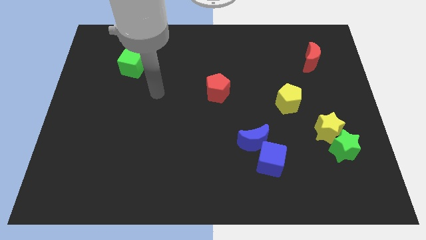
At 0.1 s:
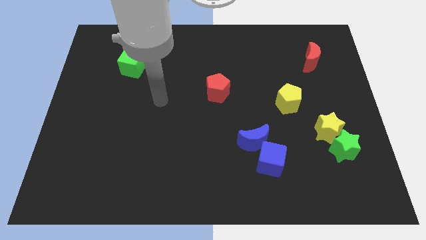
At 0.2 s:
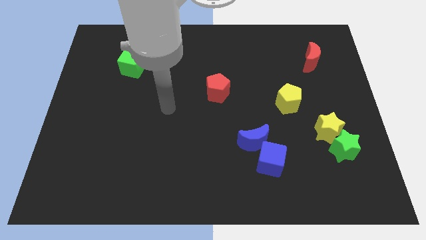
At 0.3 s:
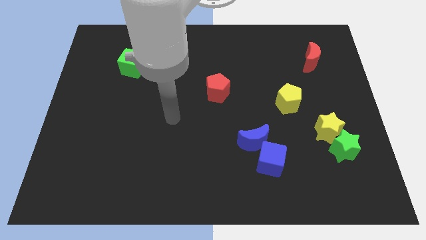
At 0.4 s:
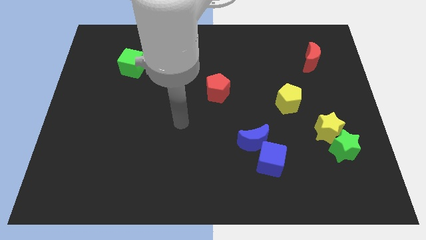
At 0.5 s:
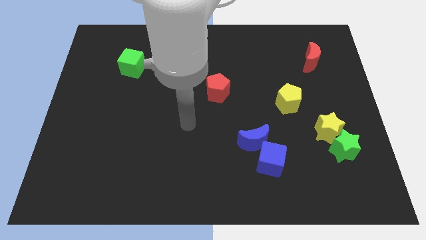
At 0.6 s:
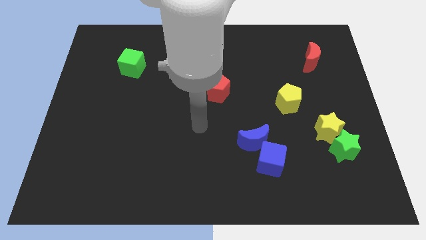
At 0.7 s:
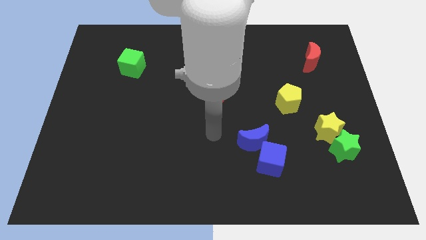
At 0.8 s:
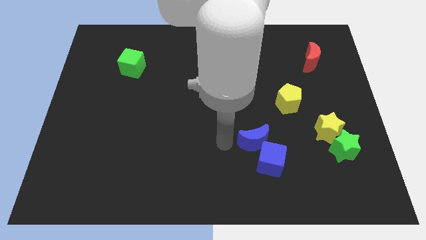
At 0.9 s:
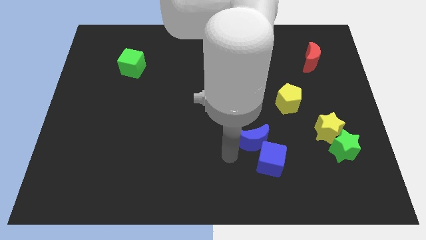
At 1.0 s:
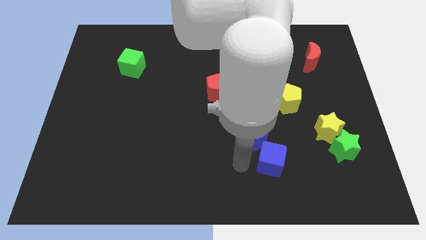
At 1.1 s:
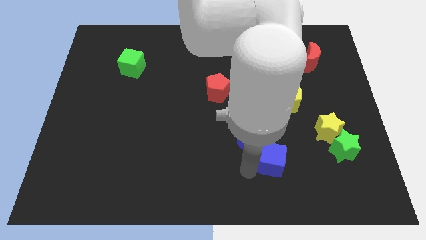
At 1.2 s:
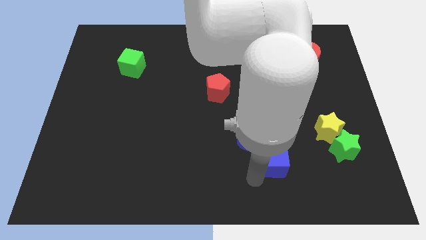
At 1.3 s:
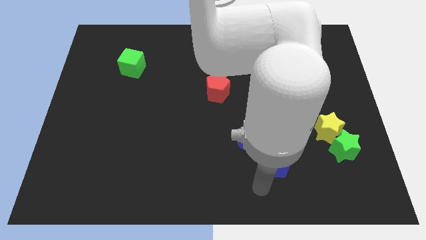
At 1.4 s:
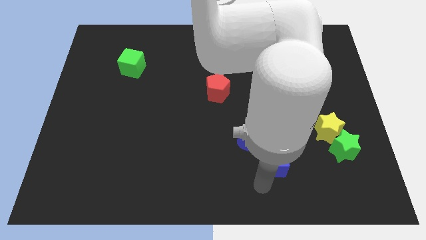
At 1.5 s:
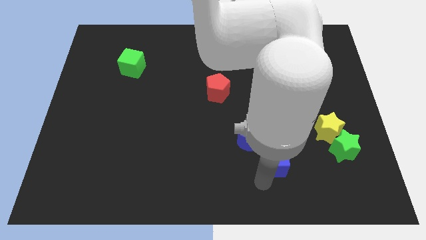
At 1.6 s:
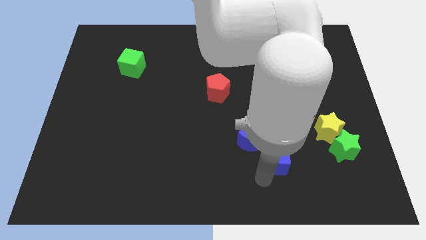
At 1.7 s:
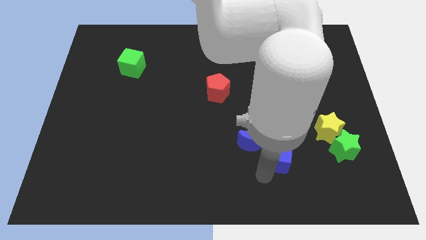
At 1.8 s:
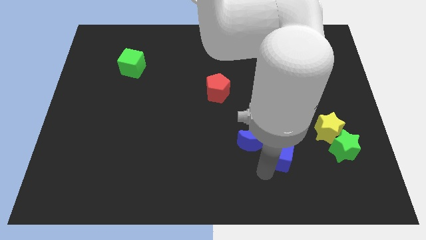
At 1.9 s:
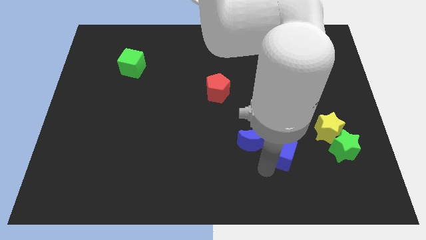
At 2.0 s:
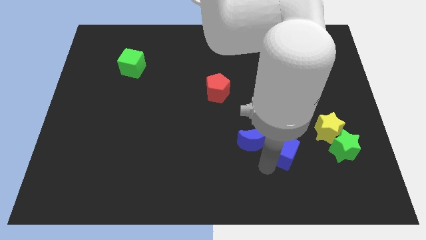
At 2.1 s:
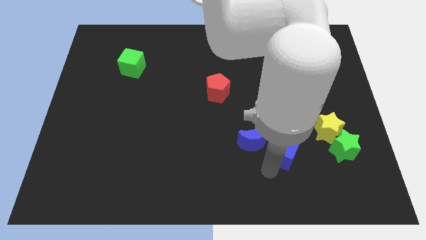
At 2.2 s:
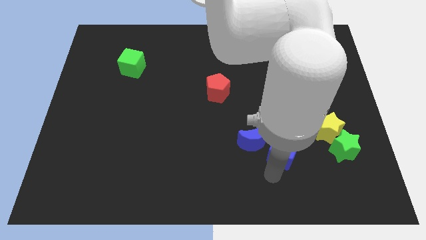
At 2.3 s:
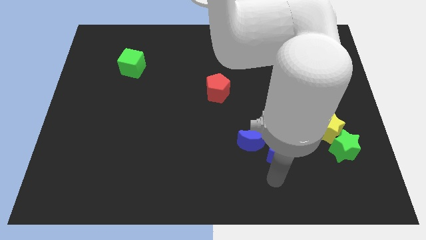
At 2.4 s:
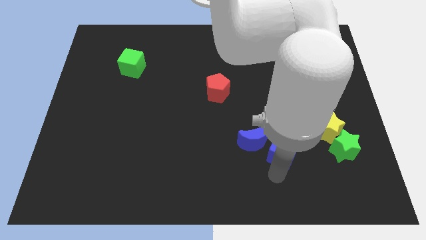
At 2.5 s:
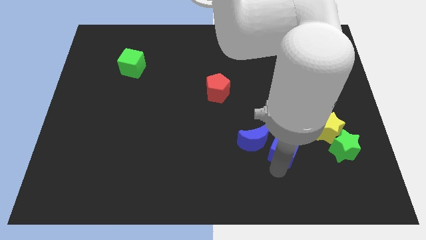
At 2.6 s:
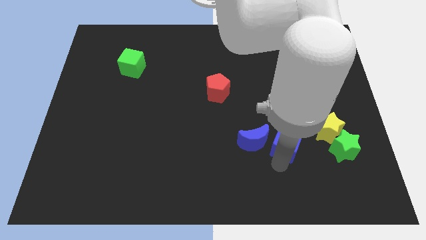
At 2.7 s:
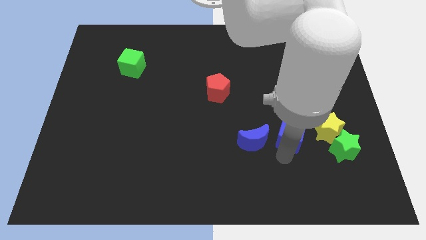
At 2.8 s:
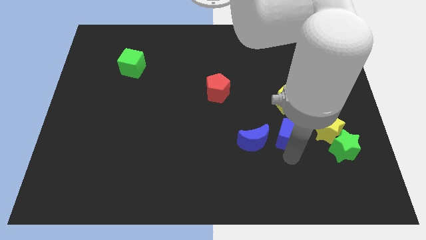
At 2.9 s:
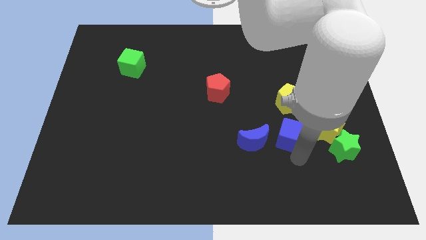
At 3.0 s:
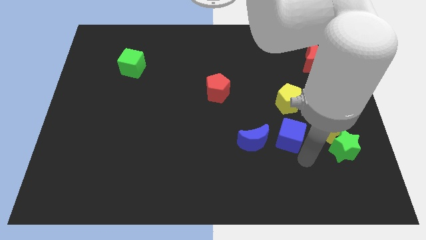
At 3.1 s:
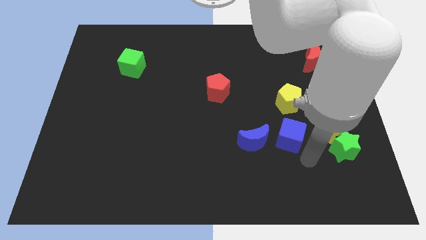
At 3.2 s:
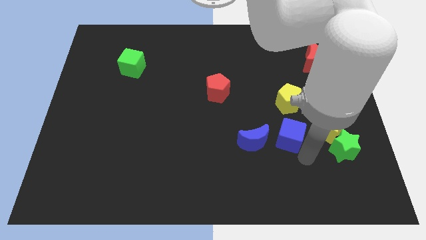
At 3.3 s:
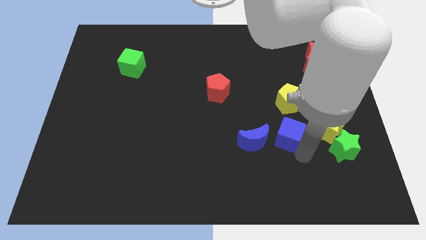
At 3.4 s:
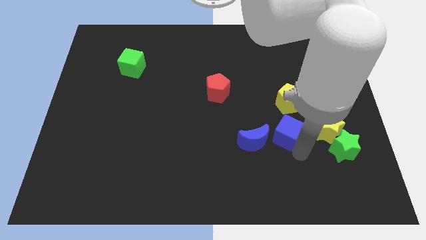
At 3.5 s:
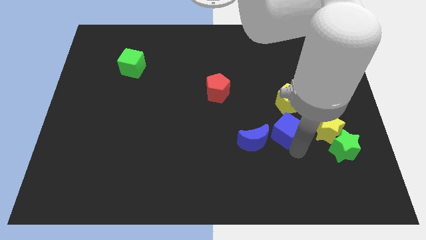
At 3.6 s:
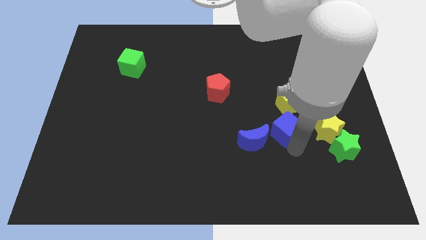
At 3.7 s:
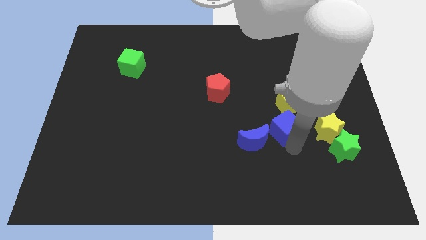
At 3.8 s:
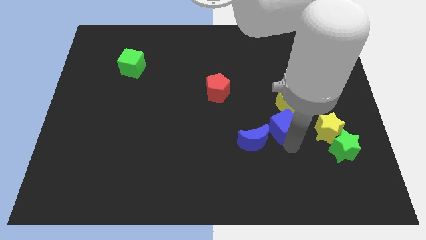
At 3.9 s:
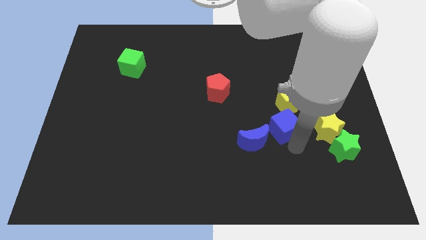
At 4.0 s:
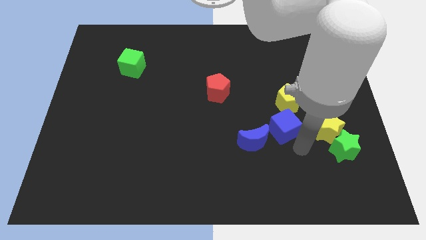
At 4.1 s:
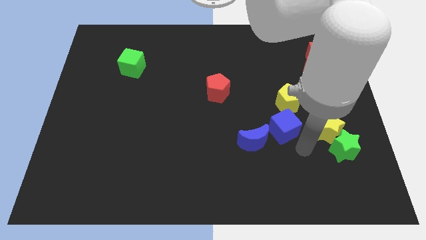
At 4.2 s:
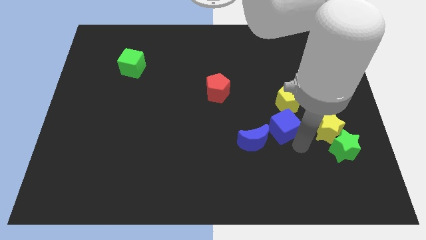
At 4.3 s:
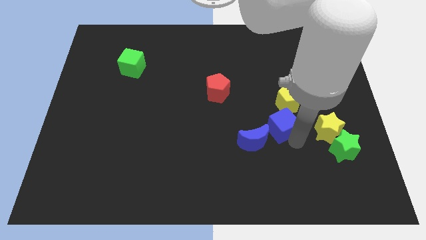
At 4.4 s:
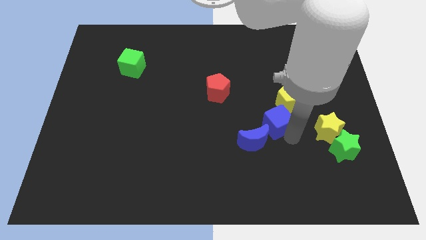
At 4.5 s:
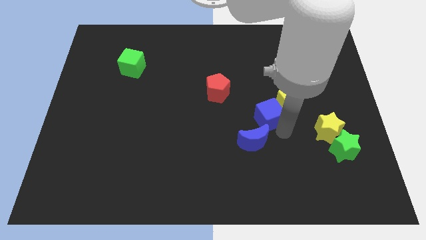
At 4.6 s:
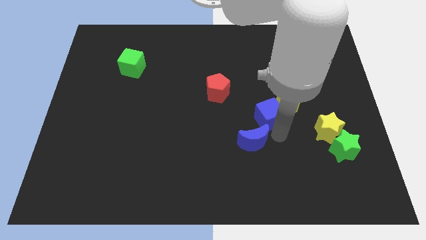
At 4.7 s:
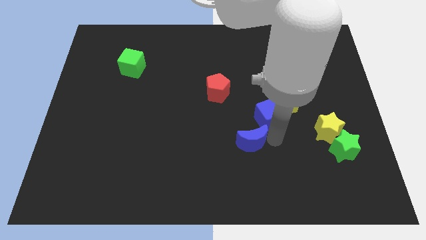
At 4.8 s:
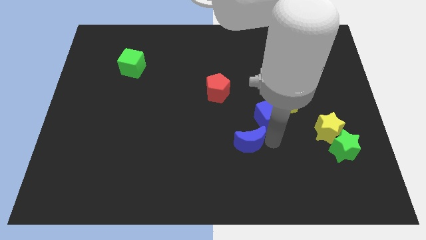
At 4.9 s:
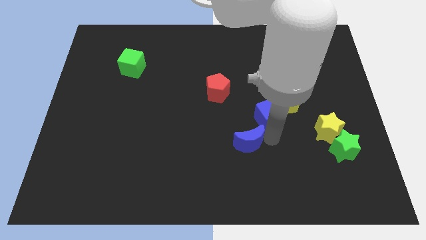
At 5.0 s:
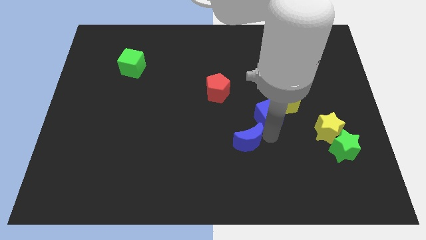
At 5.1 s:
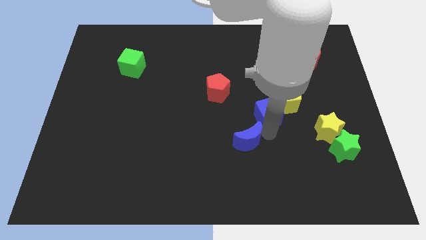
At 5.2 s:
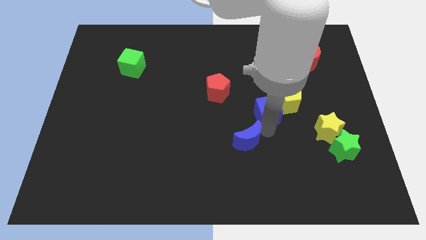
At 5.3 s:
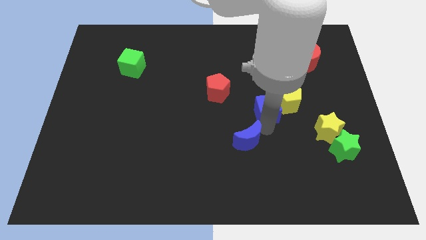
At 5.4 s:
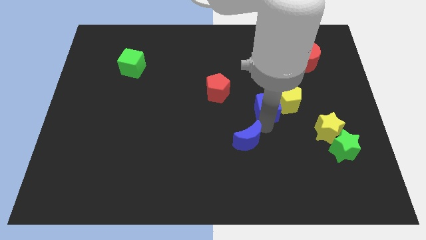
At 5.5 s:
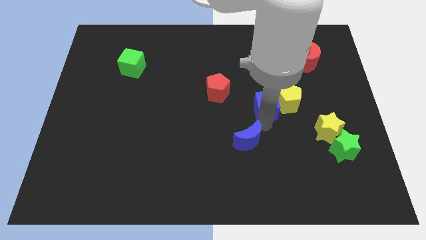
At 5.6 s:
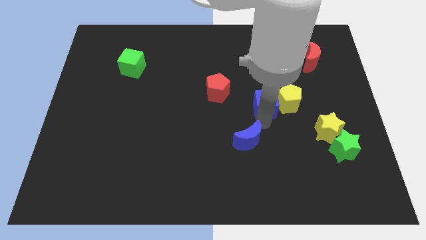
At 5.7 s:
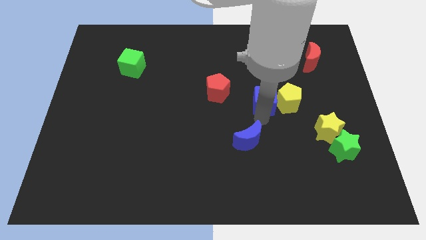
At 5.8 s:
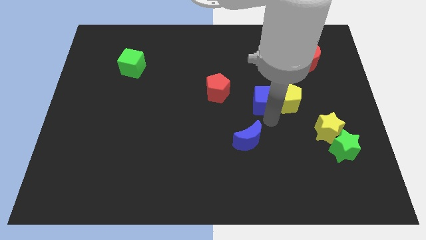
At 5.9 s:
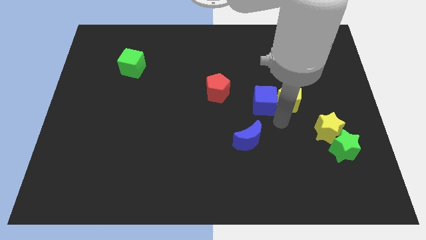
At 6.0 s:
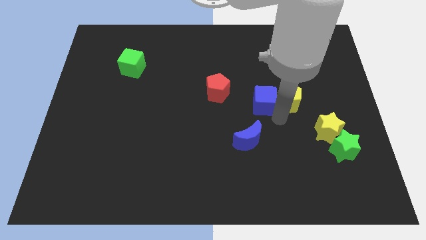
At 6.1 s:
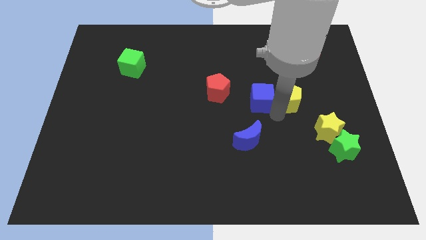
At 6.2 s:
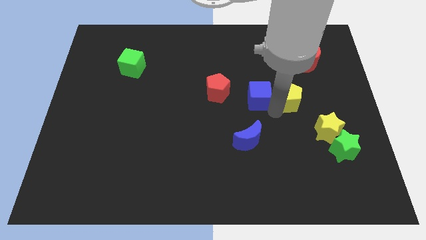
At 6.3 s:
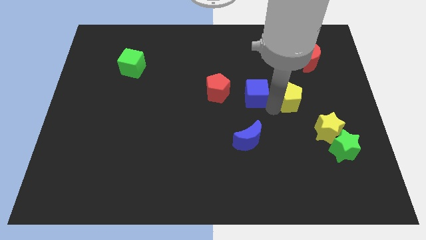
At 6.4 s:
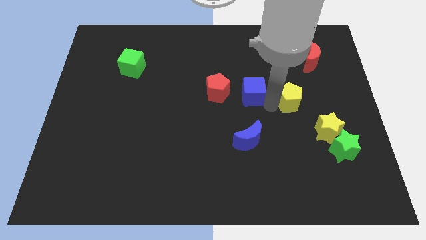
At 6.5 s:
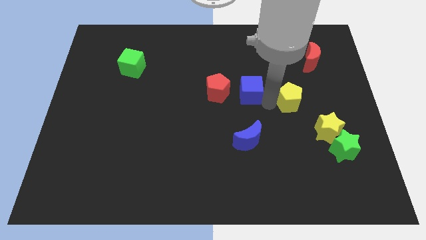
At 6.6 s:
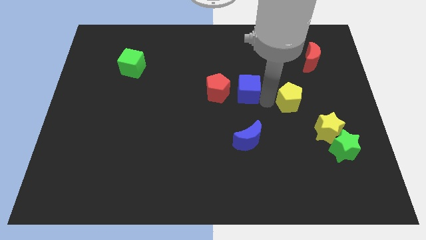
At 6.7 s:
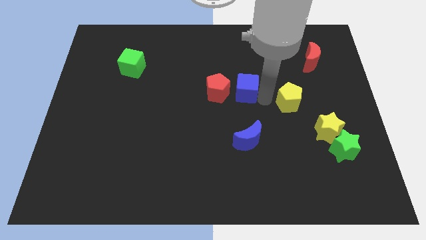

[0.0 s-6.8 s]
move the blue cube to the top right of the red pentagon
